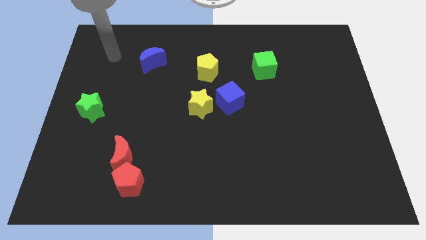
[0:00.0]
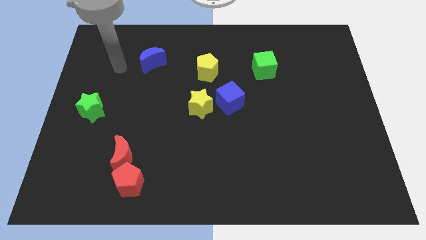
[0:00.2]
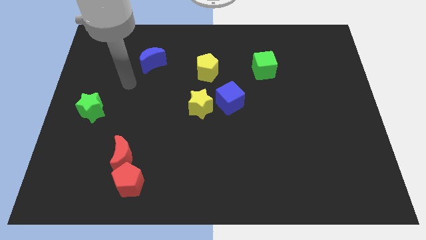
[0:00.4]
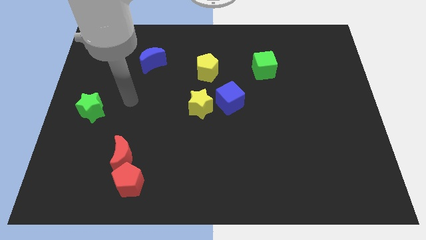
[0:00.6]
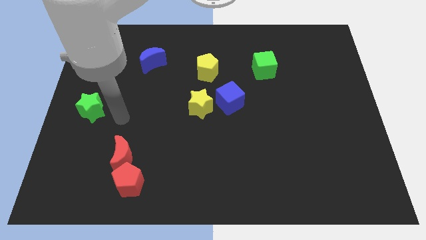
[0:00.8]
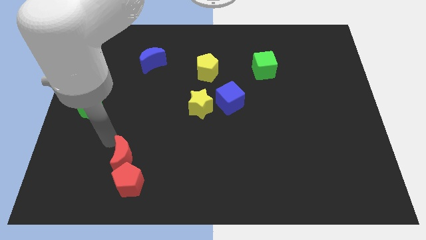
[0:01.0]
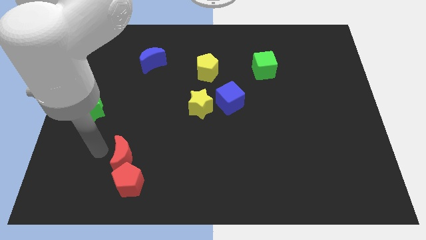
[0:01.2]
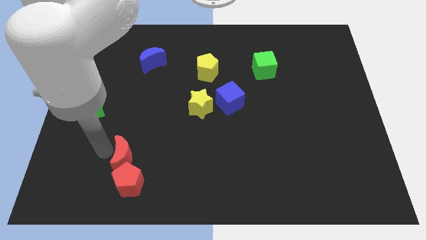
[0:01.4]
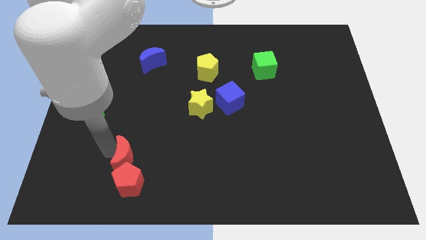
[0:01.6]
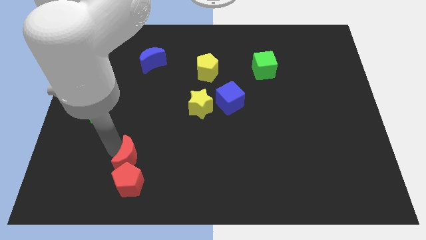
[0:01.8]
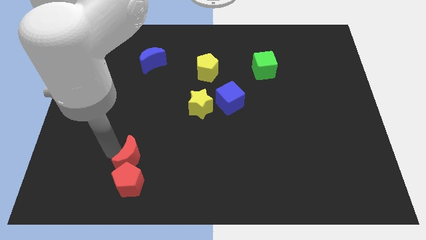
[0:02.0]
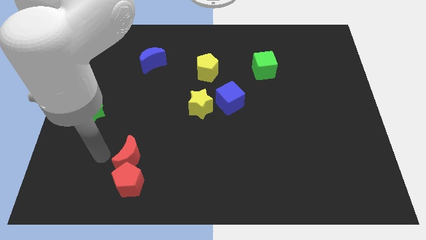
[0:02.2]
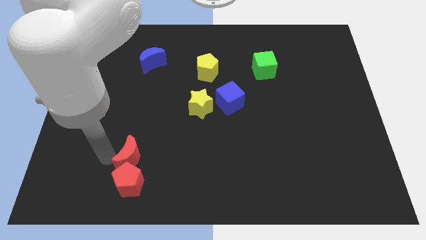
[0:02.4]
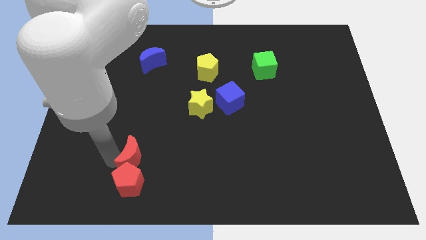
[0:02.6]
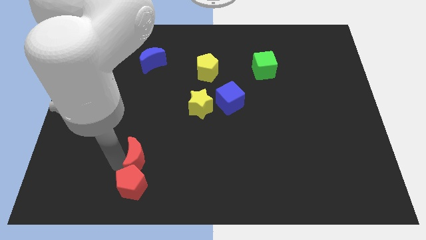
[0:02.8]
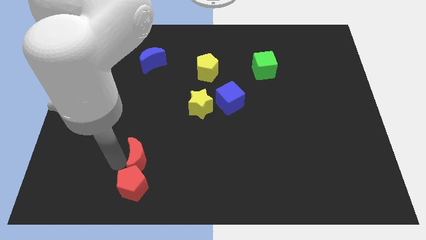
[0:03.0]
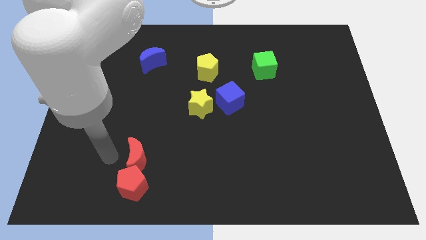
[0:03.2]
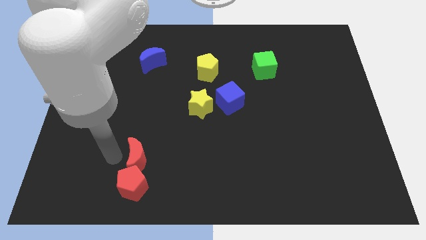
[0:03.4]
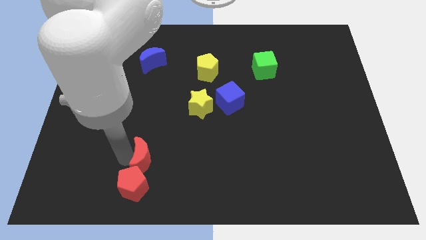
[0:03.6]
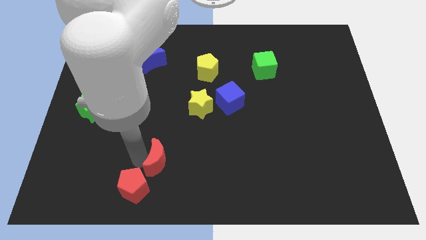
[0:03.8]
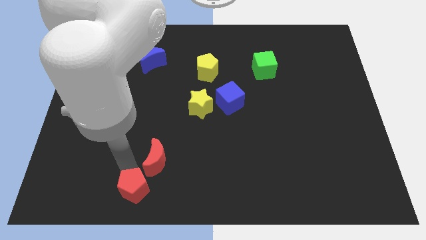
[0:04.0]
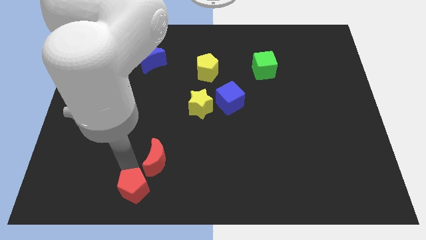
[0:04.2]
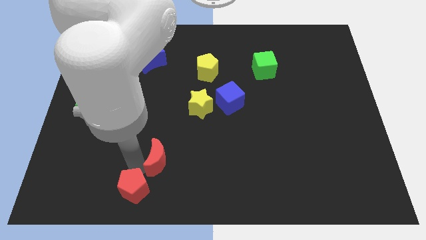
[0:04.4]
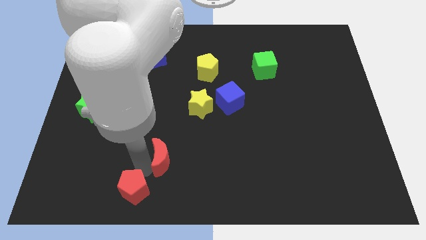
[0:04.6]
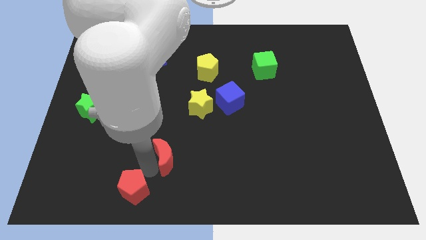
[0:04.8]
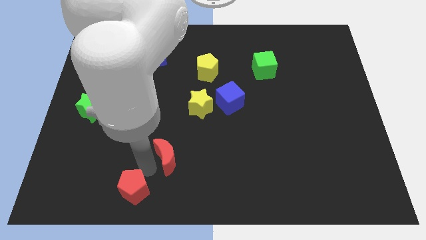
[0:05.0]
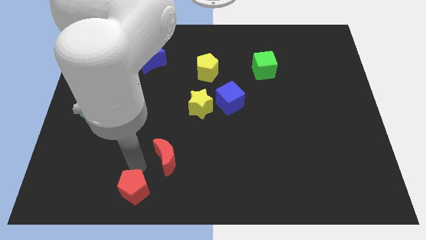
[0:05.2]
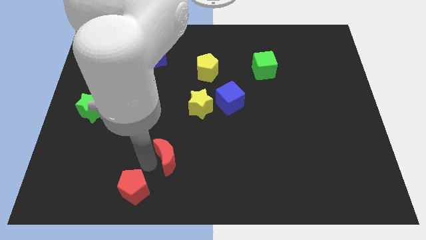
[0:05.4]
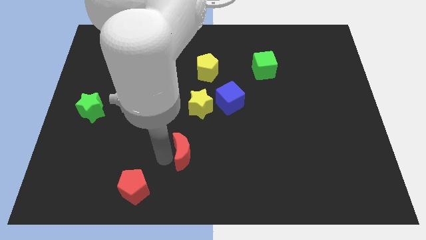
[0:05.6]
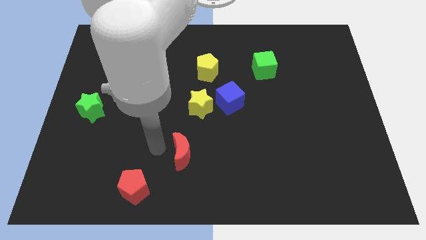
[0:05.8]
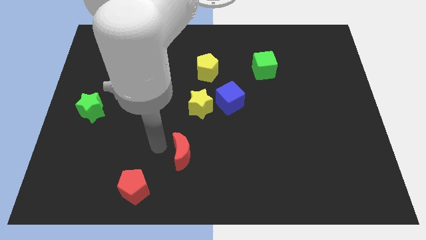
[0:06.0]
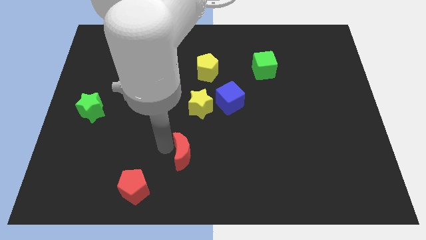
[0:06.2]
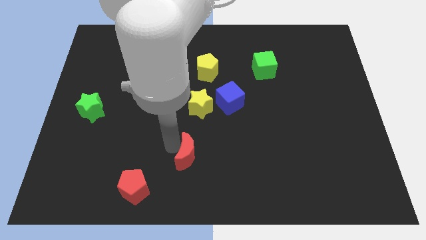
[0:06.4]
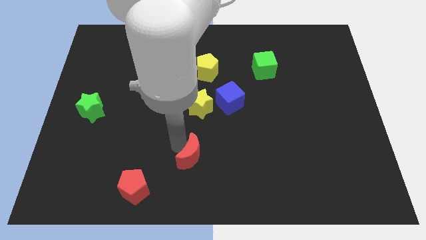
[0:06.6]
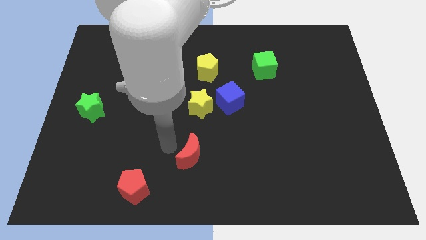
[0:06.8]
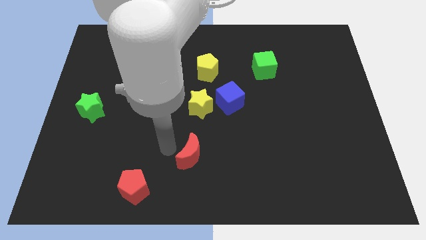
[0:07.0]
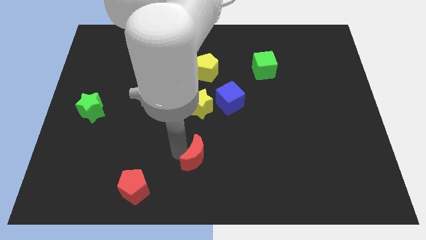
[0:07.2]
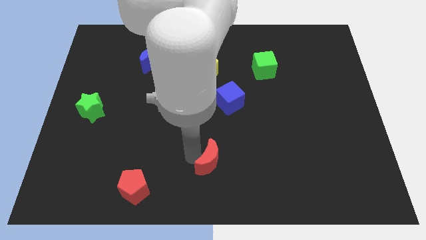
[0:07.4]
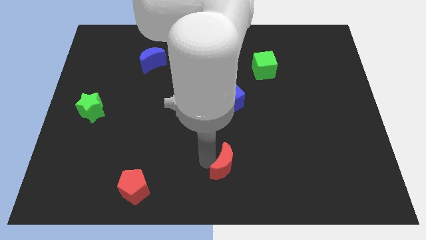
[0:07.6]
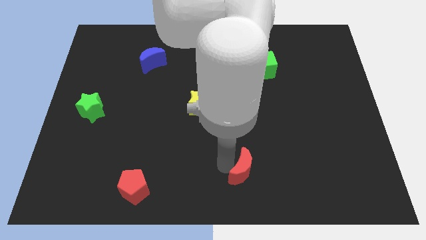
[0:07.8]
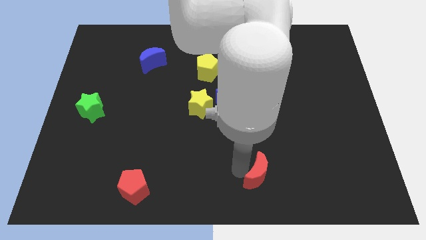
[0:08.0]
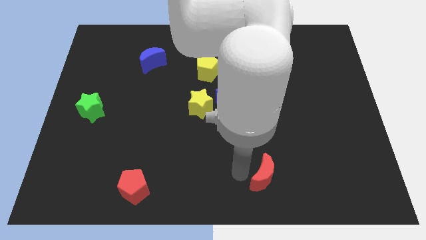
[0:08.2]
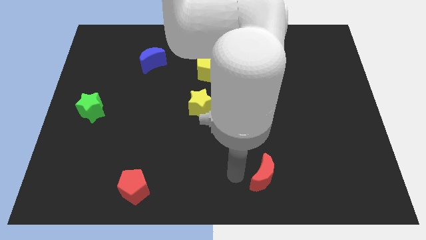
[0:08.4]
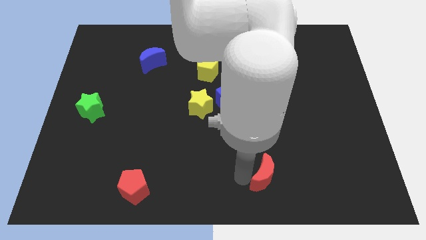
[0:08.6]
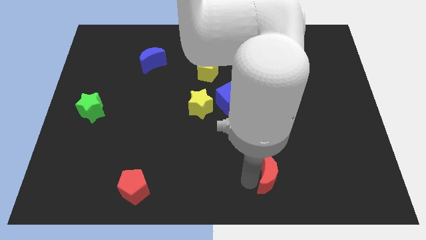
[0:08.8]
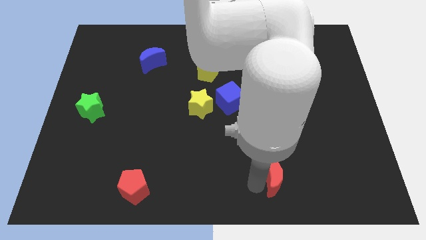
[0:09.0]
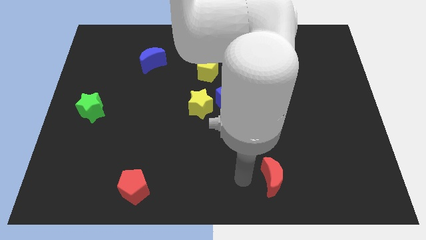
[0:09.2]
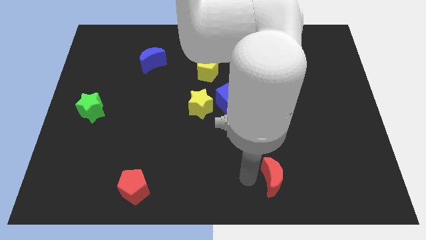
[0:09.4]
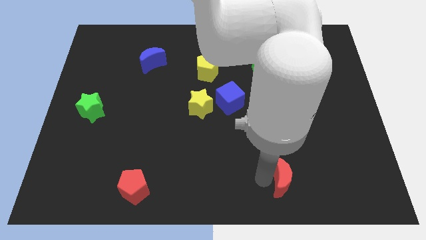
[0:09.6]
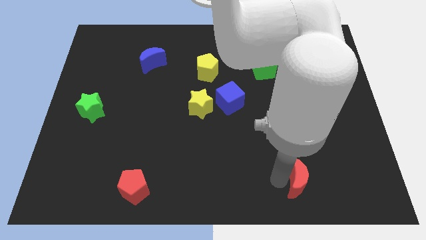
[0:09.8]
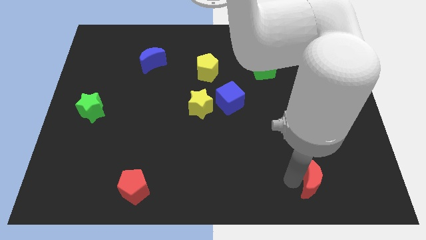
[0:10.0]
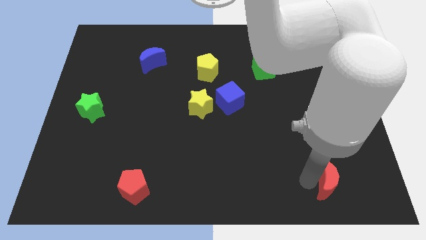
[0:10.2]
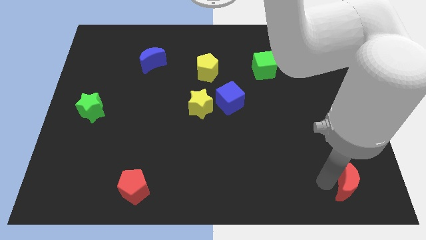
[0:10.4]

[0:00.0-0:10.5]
move the red moon to the bottom right corner

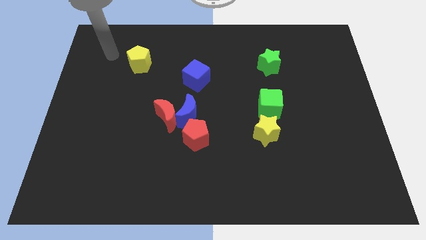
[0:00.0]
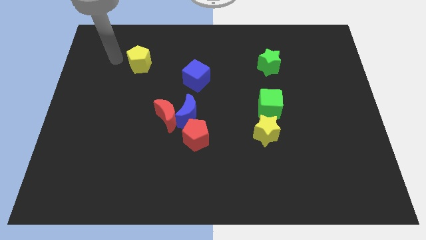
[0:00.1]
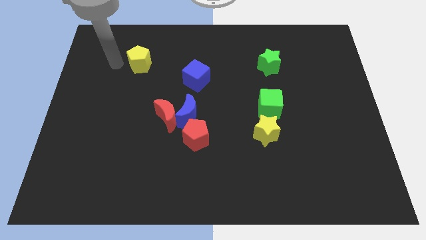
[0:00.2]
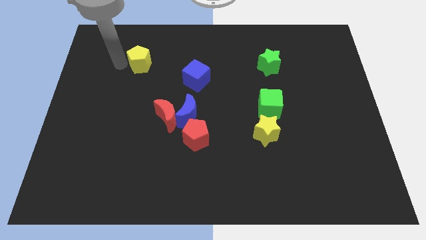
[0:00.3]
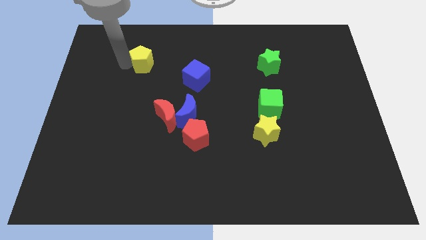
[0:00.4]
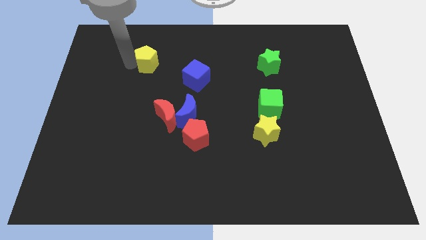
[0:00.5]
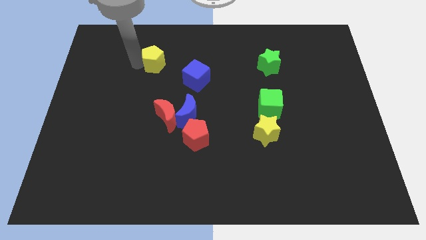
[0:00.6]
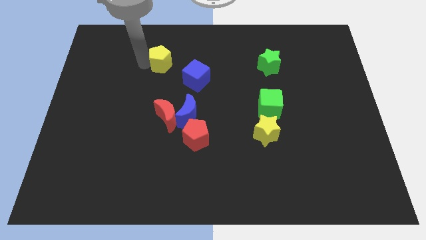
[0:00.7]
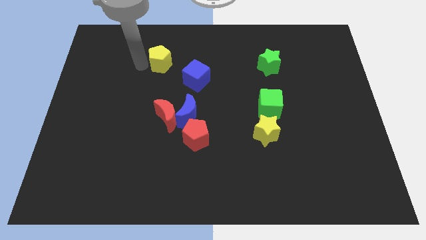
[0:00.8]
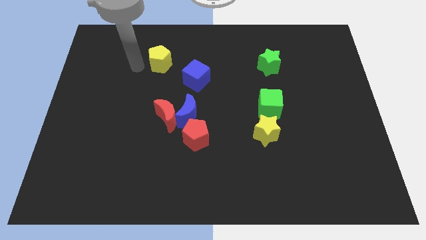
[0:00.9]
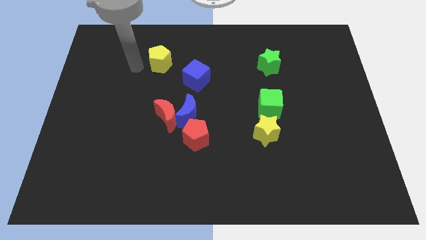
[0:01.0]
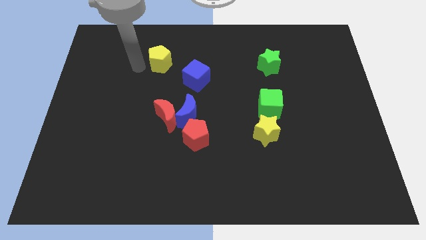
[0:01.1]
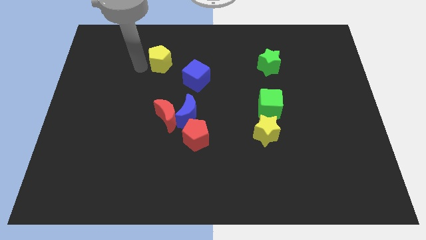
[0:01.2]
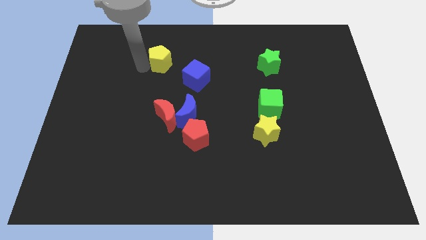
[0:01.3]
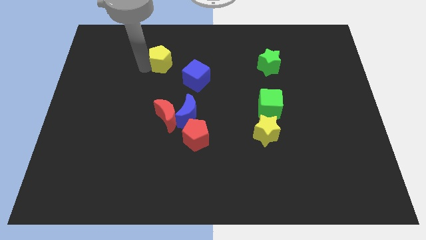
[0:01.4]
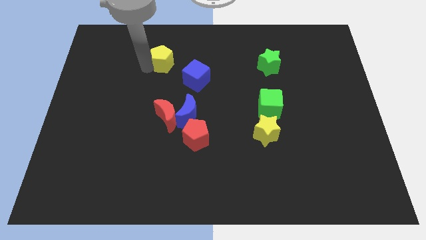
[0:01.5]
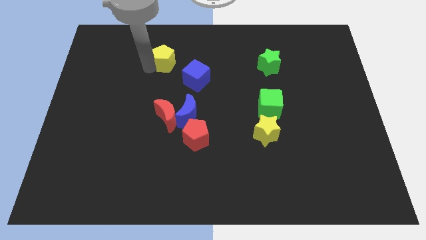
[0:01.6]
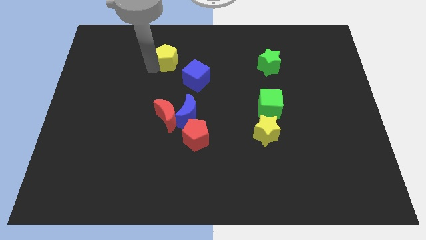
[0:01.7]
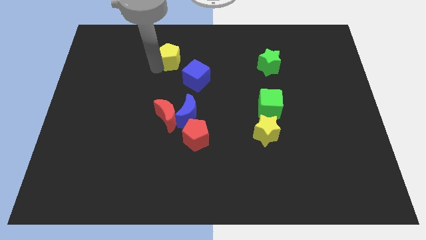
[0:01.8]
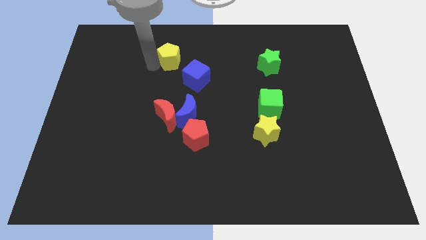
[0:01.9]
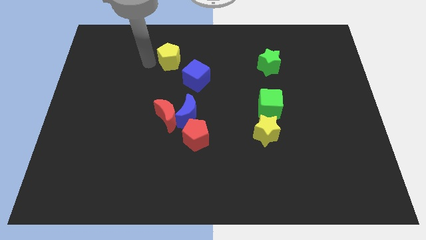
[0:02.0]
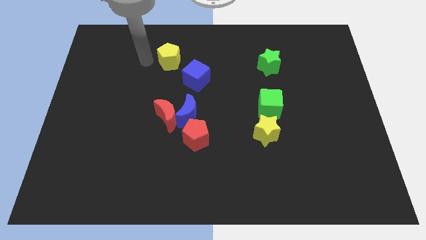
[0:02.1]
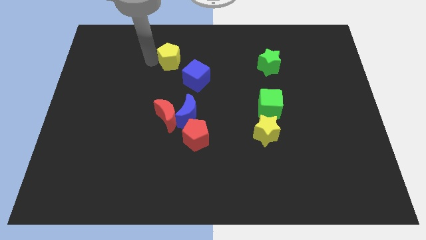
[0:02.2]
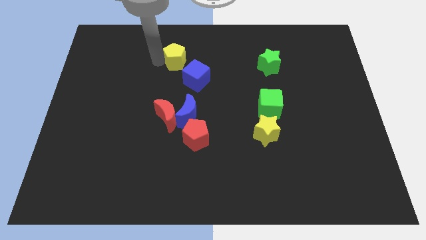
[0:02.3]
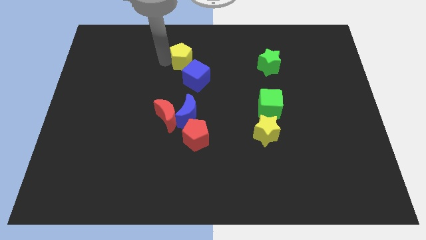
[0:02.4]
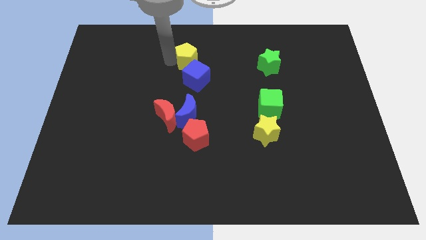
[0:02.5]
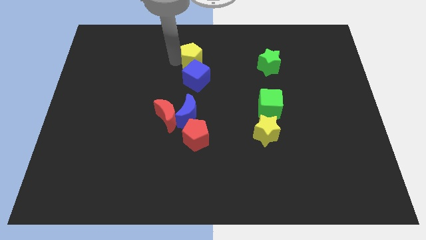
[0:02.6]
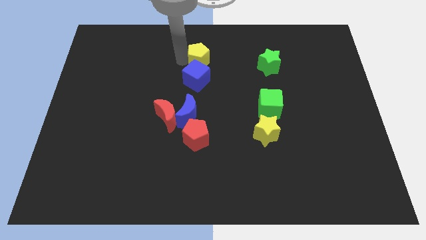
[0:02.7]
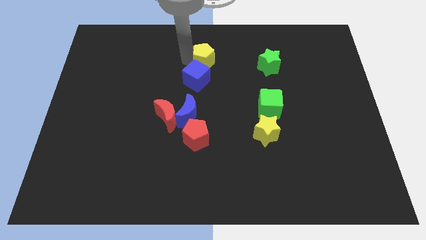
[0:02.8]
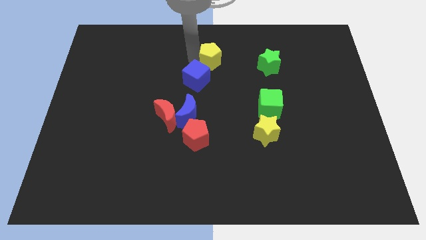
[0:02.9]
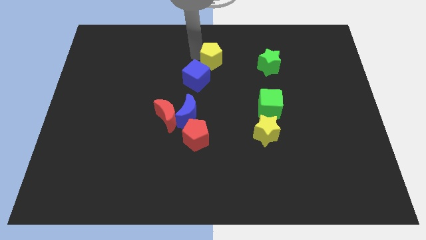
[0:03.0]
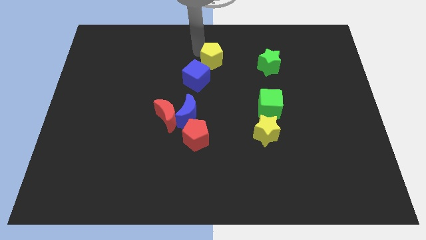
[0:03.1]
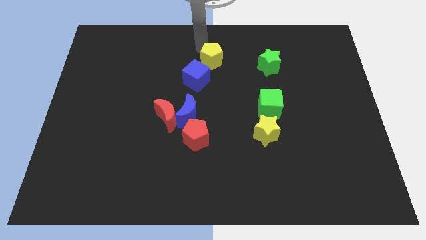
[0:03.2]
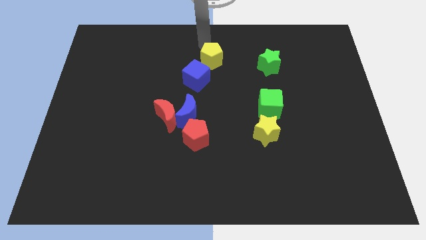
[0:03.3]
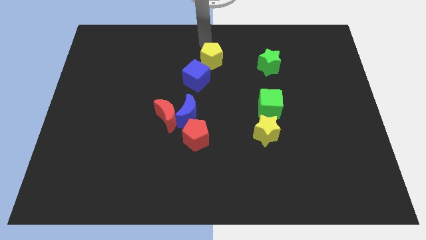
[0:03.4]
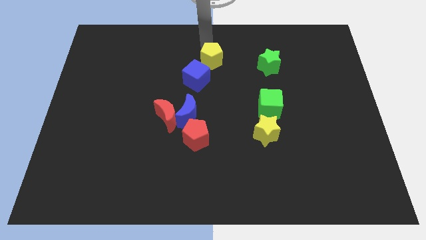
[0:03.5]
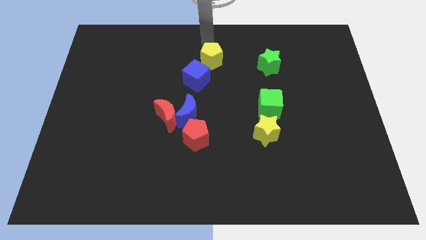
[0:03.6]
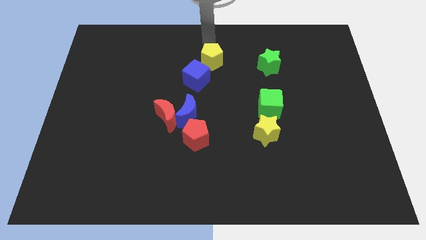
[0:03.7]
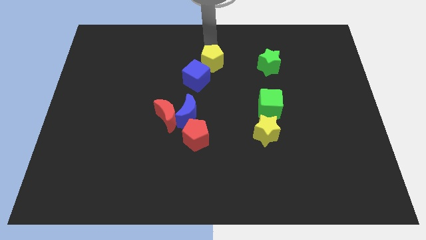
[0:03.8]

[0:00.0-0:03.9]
move the yellow pentagon to the middle
